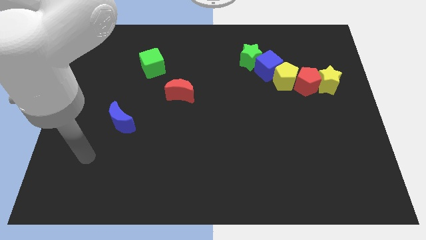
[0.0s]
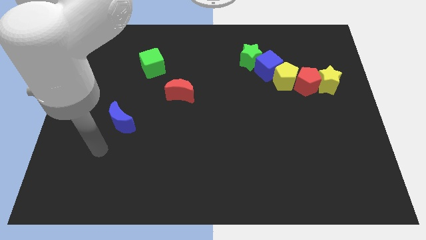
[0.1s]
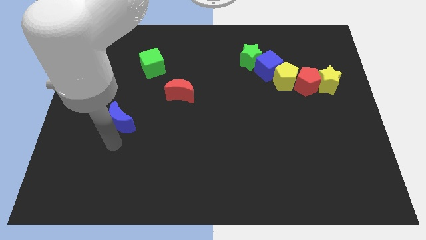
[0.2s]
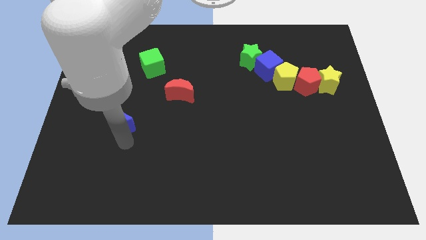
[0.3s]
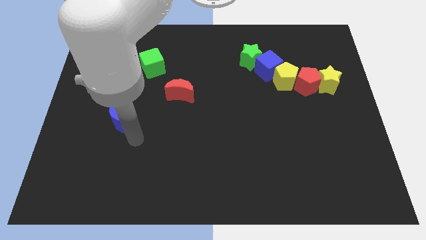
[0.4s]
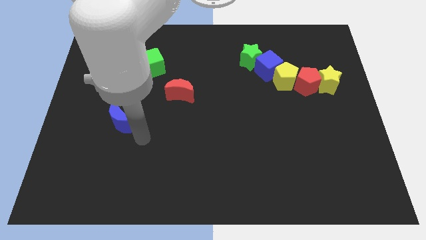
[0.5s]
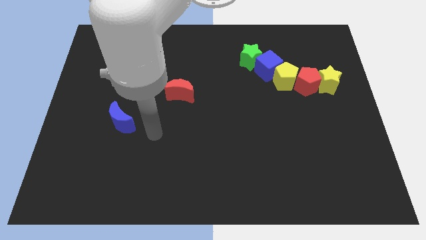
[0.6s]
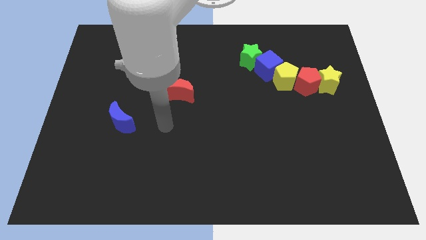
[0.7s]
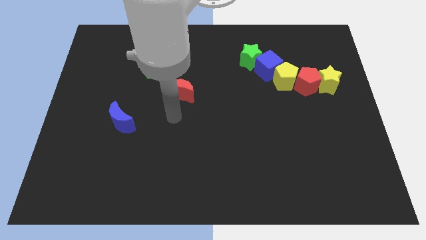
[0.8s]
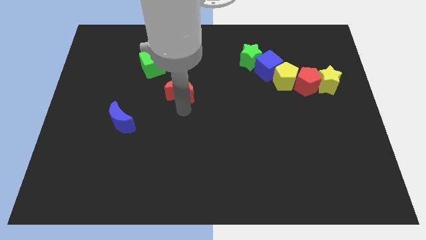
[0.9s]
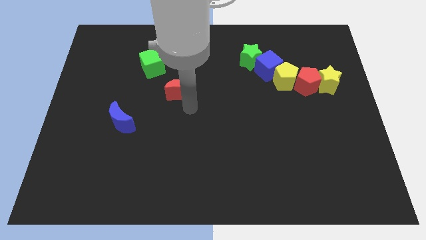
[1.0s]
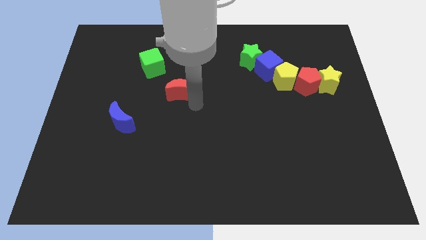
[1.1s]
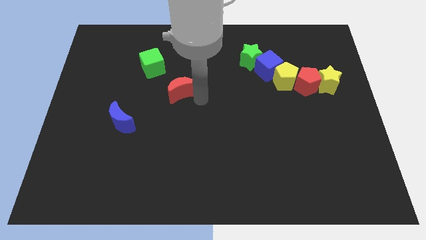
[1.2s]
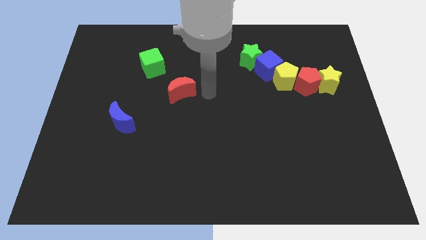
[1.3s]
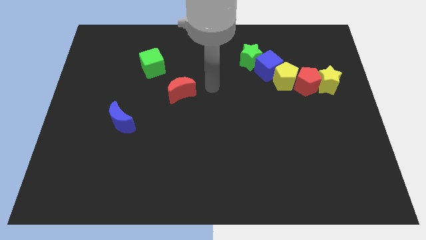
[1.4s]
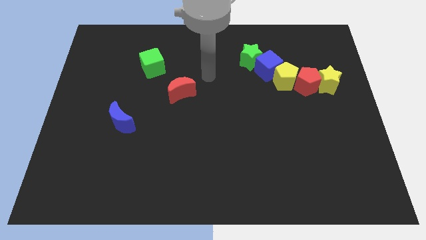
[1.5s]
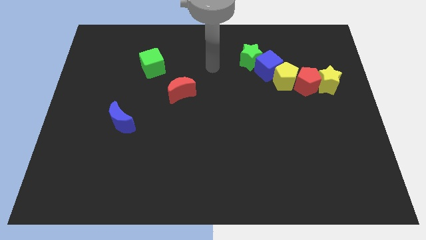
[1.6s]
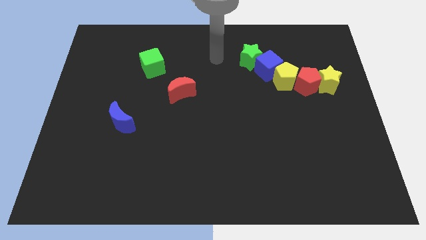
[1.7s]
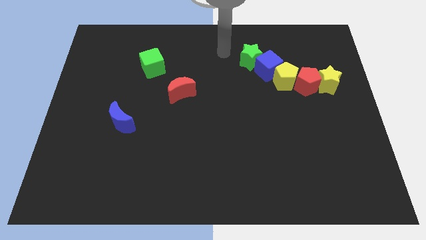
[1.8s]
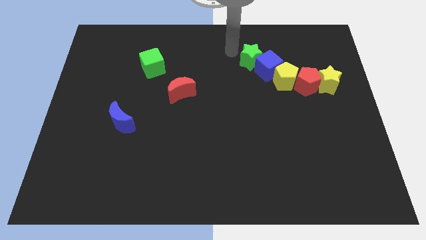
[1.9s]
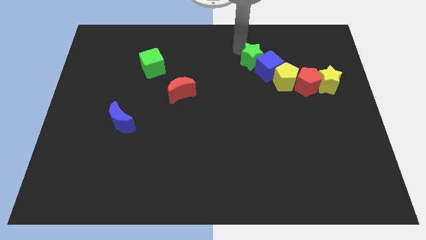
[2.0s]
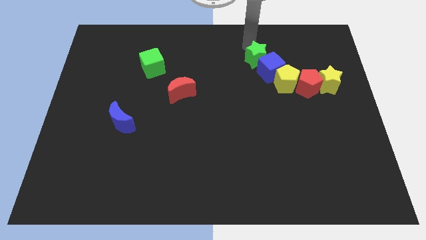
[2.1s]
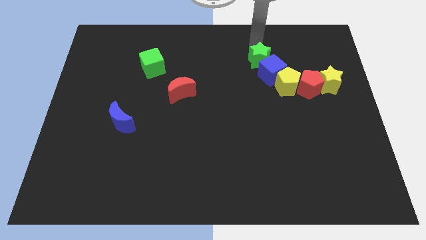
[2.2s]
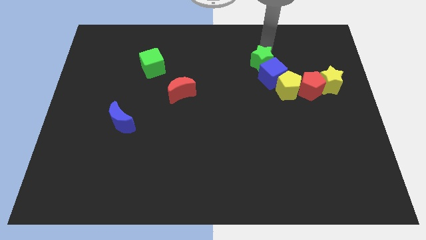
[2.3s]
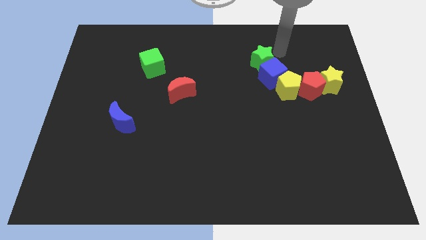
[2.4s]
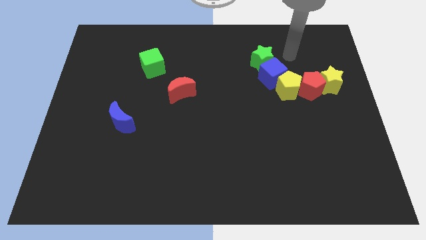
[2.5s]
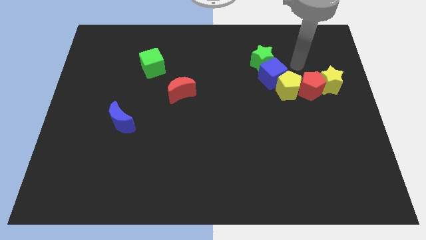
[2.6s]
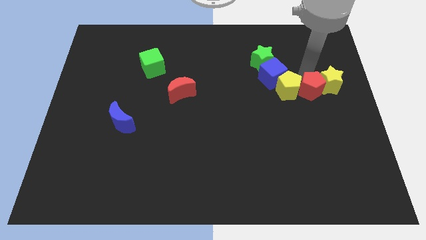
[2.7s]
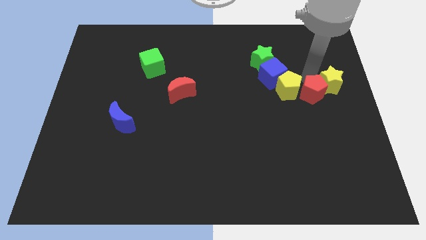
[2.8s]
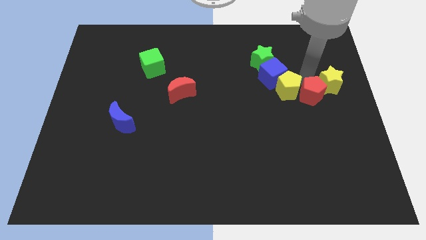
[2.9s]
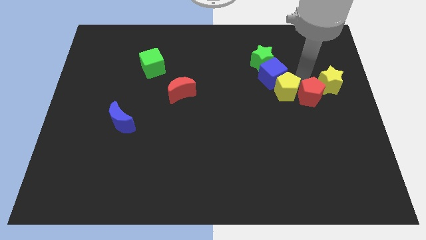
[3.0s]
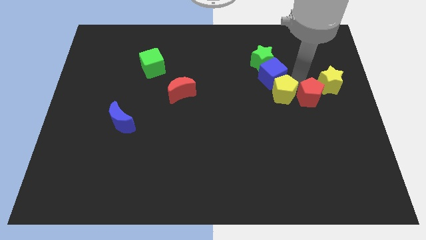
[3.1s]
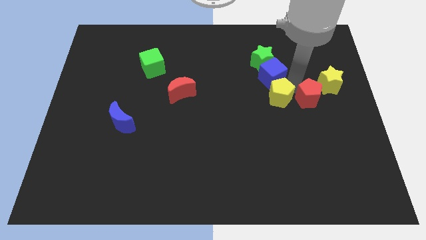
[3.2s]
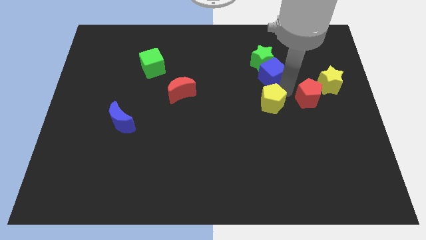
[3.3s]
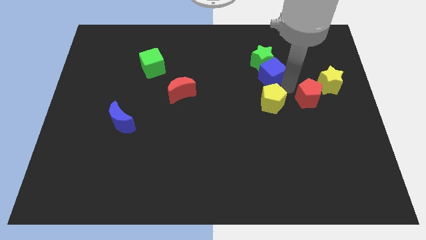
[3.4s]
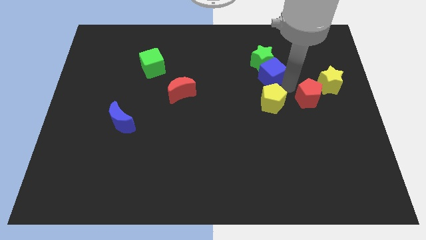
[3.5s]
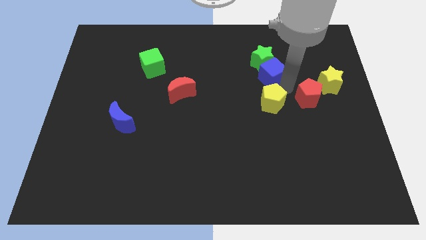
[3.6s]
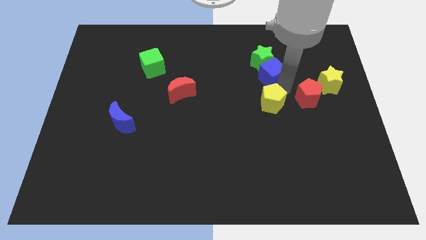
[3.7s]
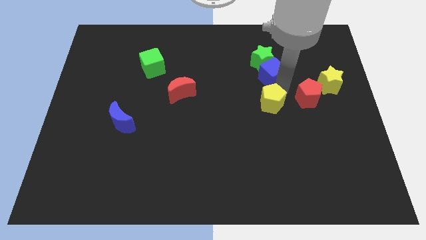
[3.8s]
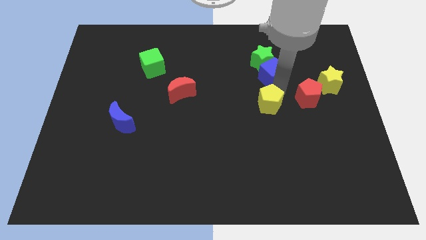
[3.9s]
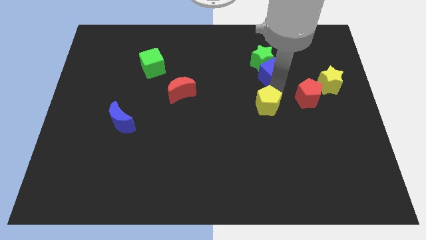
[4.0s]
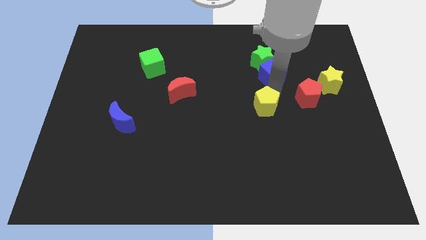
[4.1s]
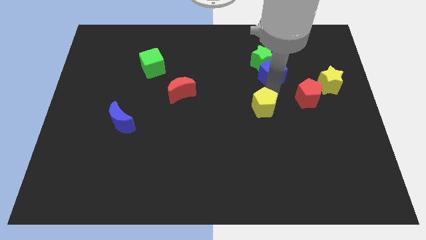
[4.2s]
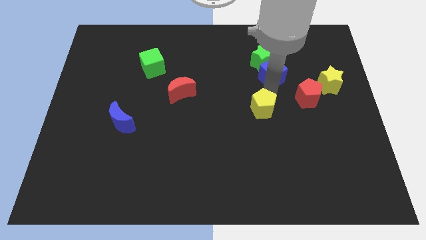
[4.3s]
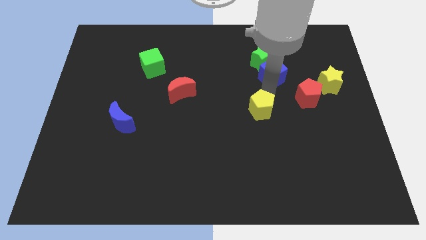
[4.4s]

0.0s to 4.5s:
pull the yellow pentagon apart from the blue cube and red pentagon

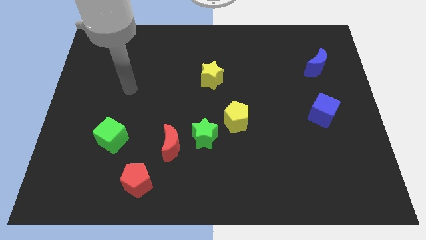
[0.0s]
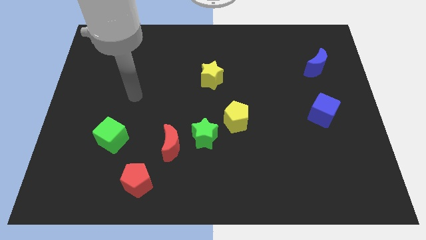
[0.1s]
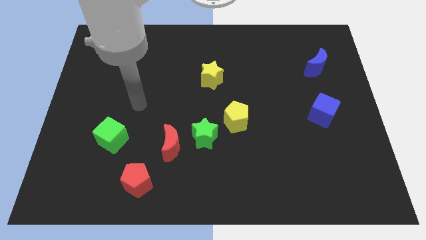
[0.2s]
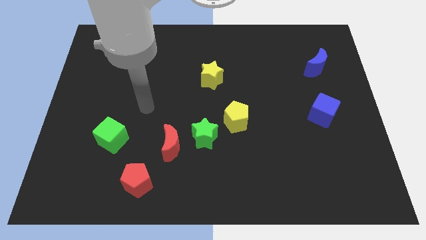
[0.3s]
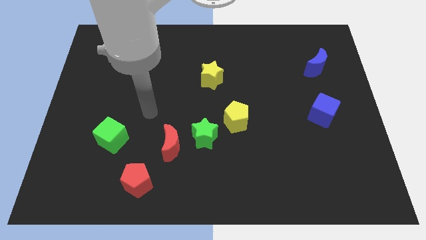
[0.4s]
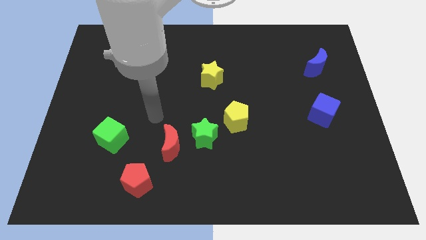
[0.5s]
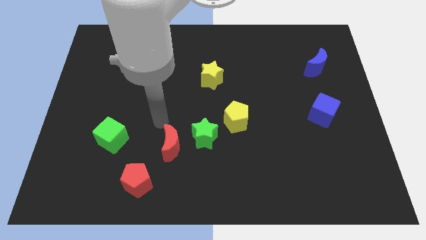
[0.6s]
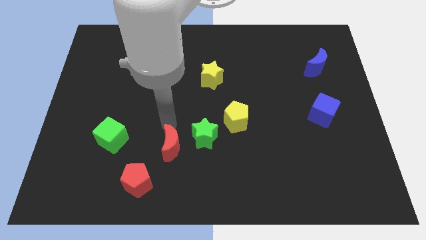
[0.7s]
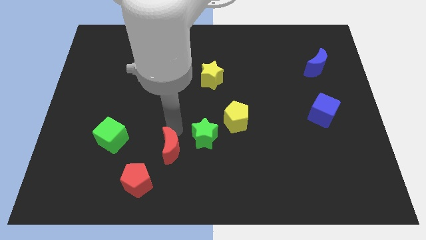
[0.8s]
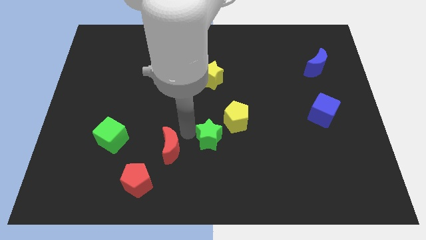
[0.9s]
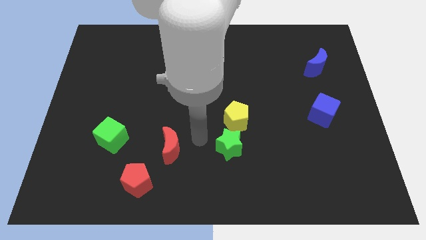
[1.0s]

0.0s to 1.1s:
move the red moon away from the green star

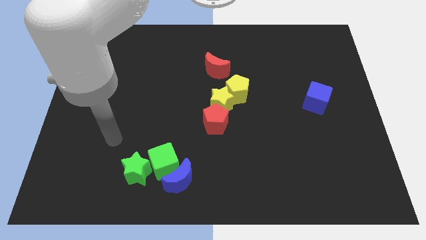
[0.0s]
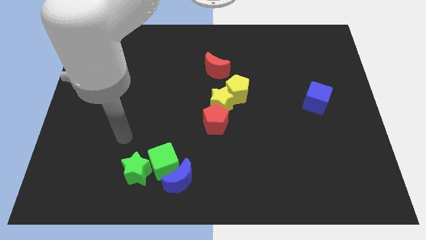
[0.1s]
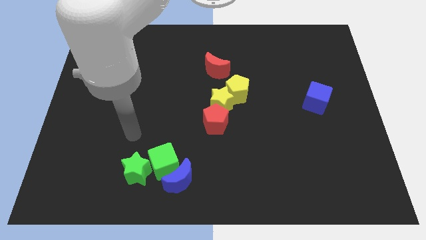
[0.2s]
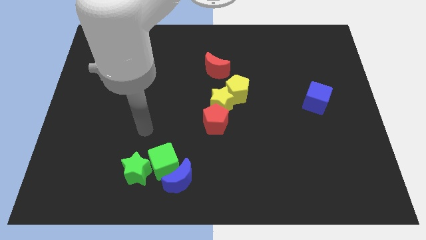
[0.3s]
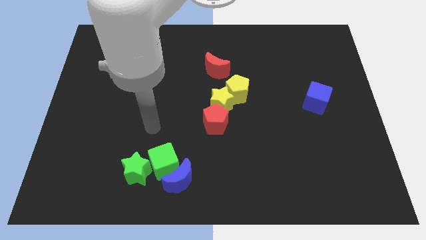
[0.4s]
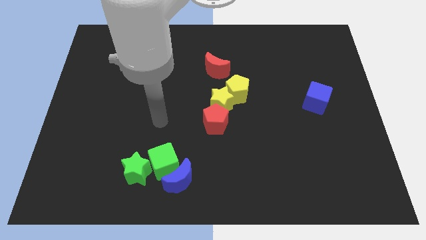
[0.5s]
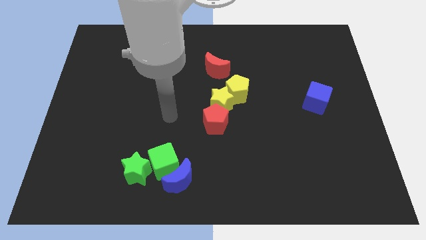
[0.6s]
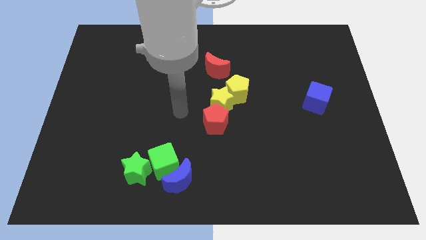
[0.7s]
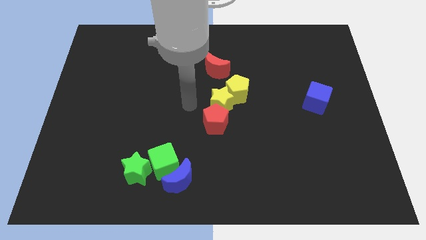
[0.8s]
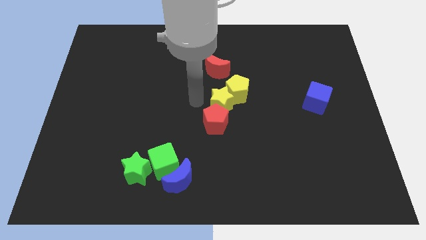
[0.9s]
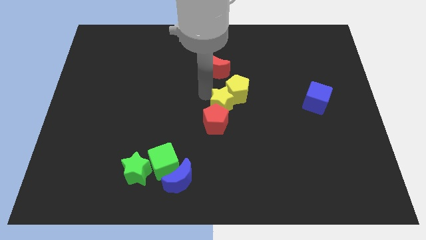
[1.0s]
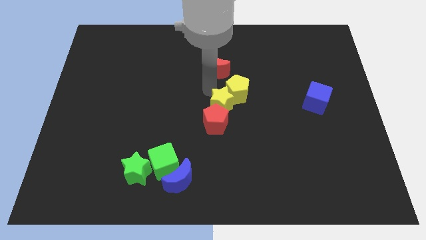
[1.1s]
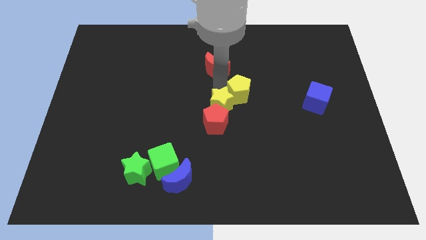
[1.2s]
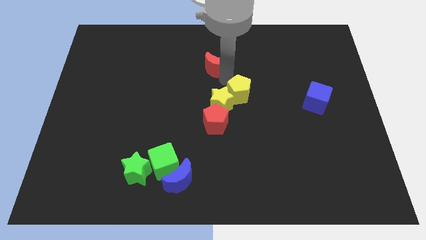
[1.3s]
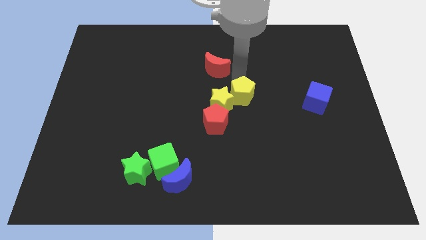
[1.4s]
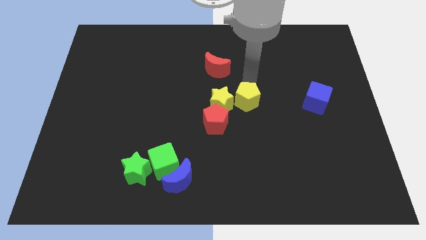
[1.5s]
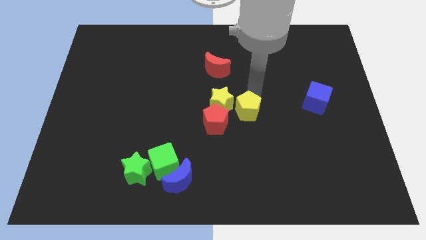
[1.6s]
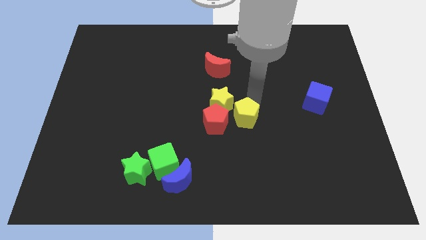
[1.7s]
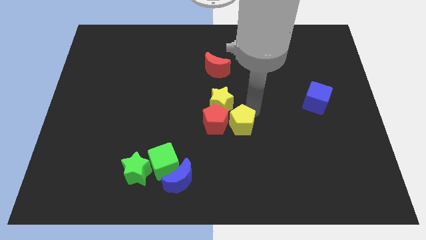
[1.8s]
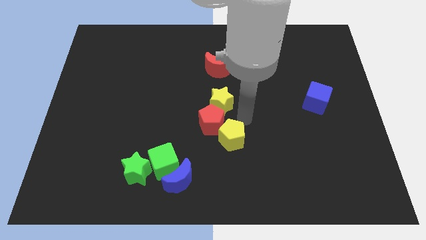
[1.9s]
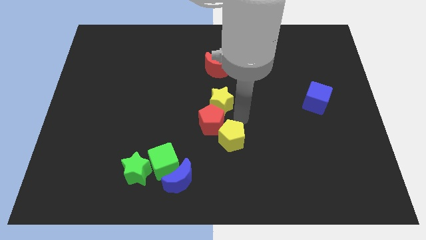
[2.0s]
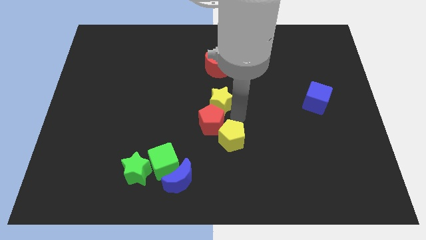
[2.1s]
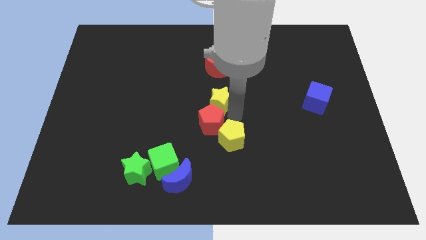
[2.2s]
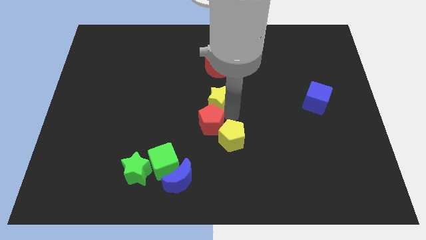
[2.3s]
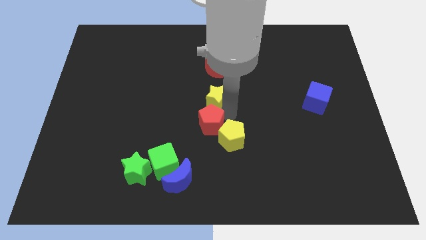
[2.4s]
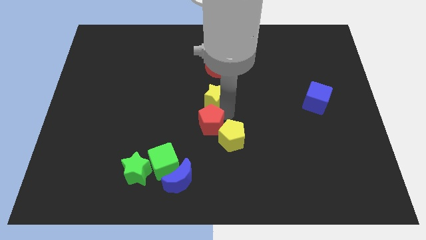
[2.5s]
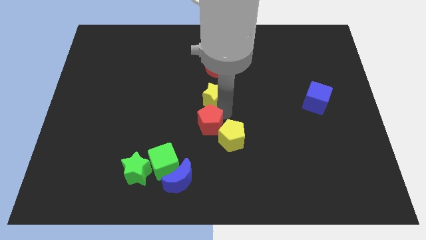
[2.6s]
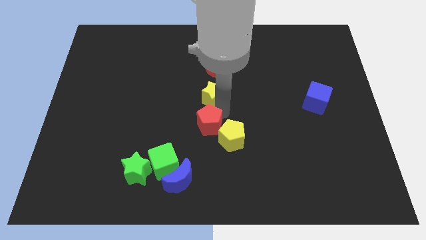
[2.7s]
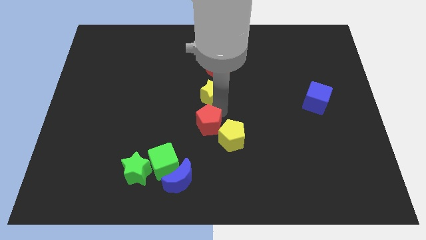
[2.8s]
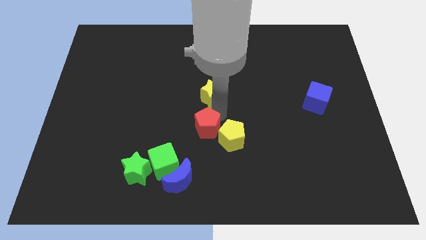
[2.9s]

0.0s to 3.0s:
move the yellow star away from the yellow pentagon and red pentagon

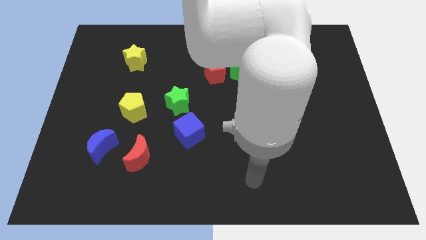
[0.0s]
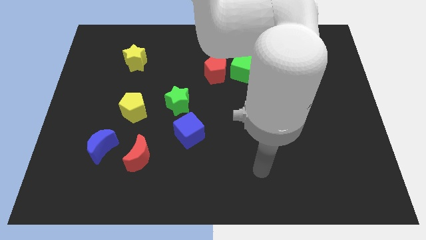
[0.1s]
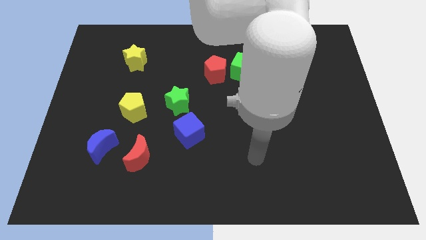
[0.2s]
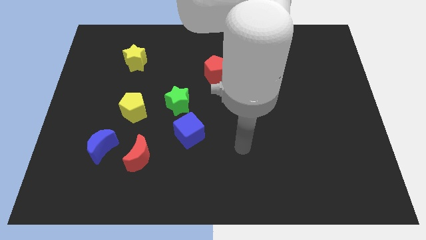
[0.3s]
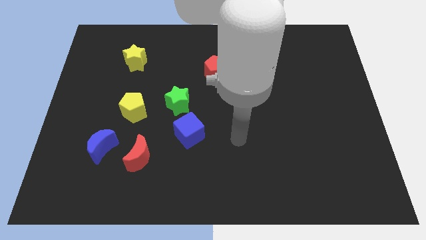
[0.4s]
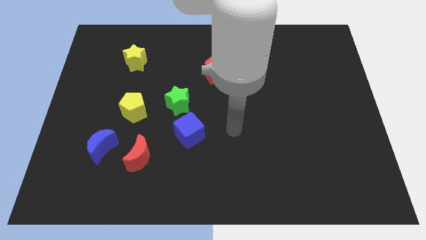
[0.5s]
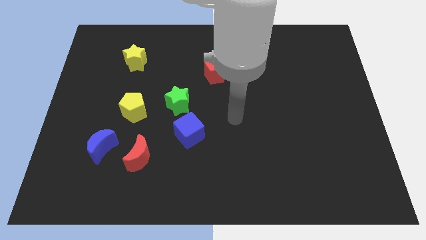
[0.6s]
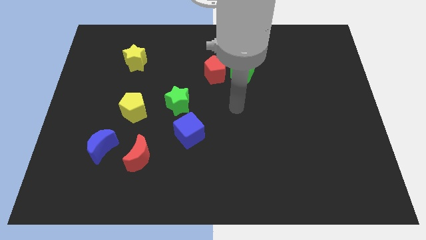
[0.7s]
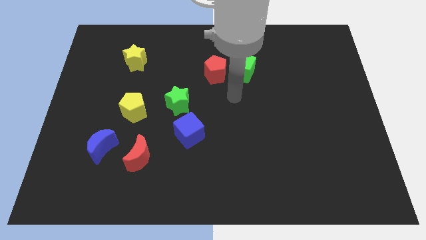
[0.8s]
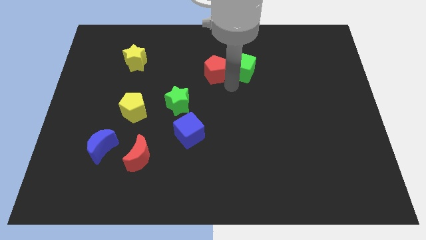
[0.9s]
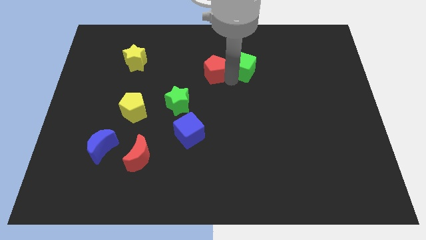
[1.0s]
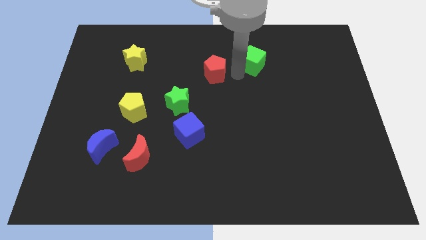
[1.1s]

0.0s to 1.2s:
separate the red pentagon from the green cube
